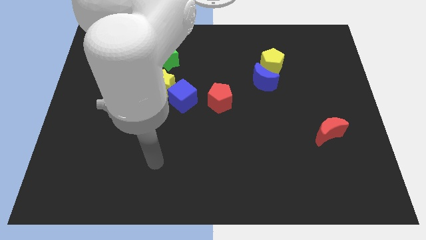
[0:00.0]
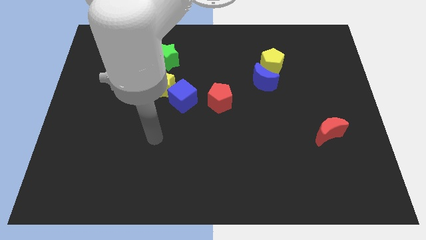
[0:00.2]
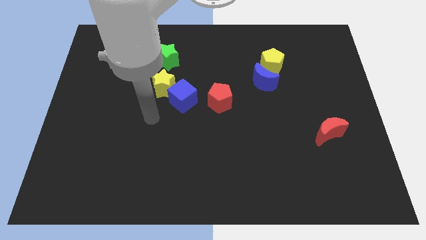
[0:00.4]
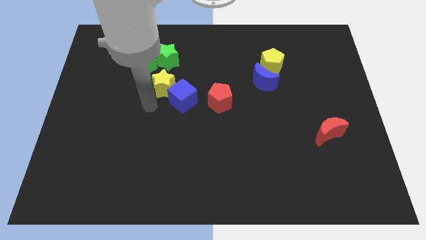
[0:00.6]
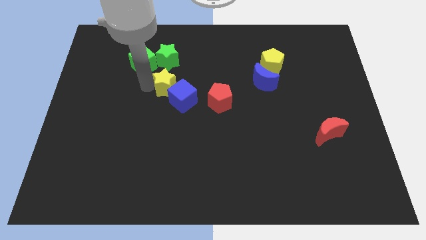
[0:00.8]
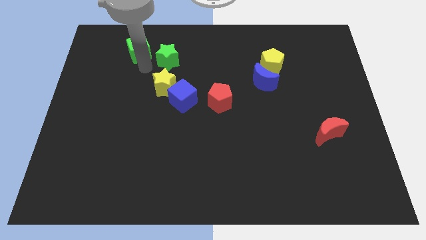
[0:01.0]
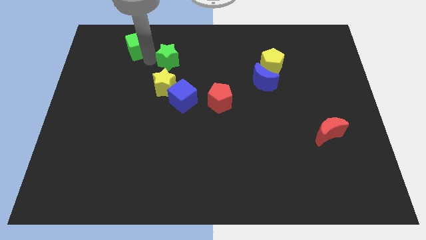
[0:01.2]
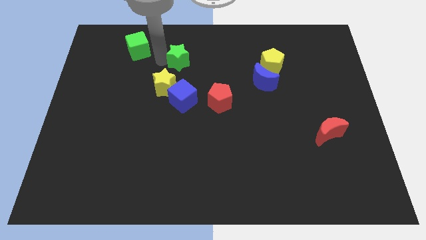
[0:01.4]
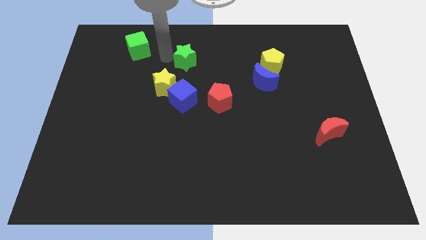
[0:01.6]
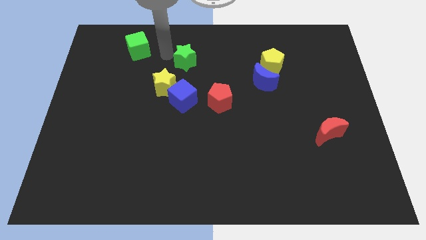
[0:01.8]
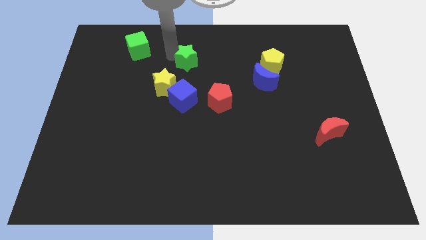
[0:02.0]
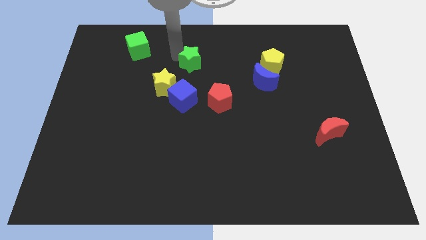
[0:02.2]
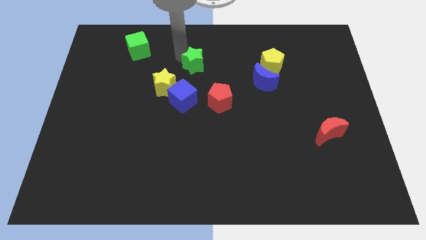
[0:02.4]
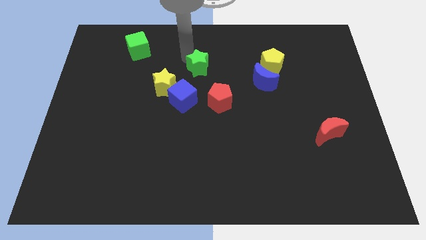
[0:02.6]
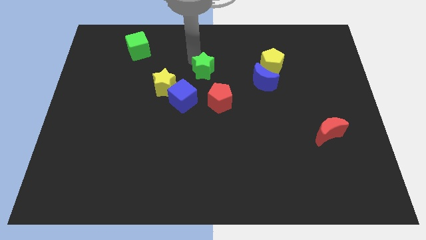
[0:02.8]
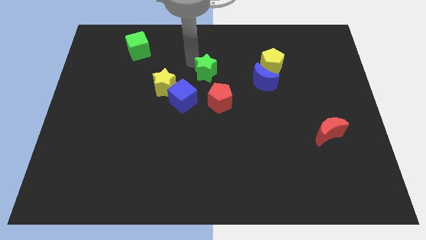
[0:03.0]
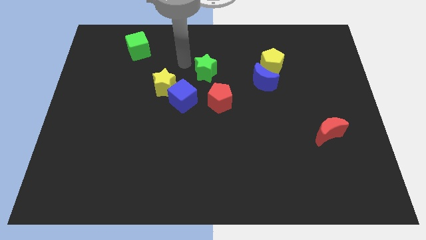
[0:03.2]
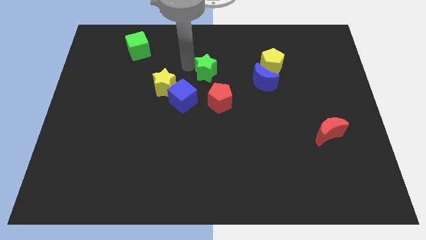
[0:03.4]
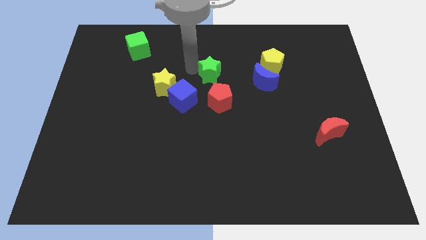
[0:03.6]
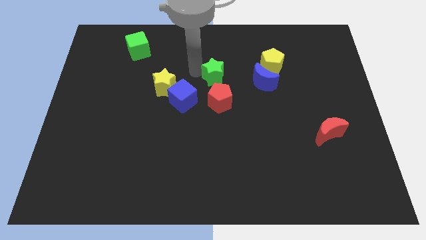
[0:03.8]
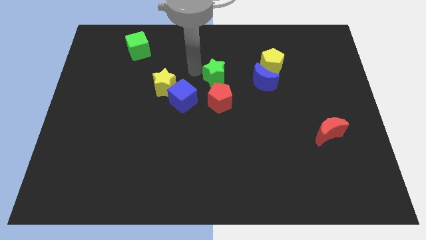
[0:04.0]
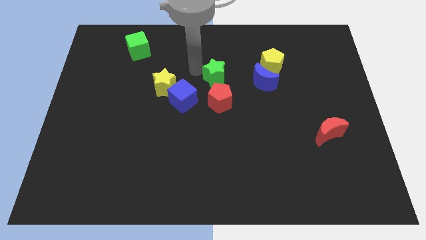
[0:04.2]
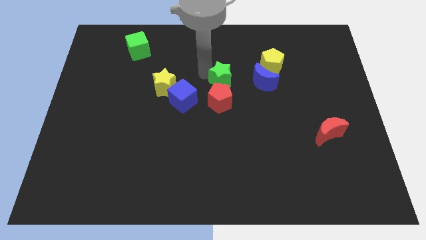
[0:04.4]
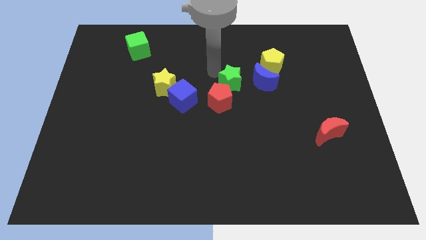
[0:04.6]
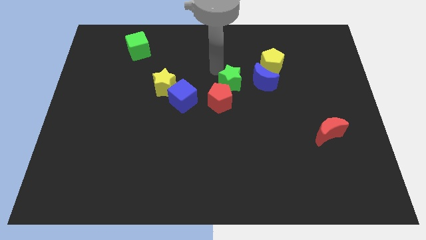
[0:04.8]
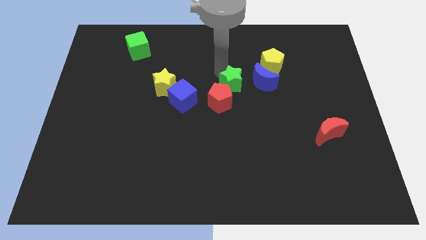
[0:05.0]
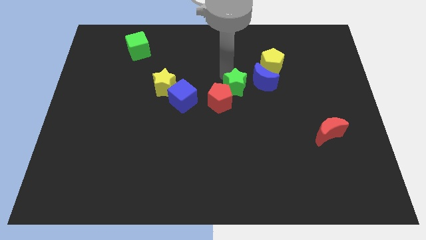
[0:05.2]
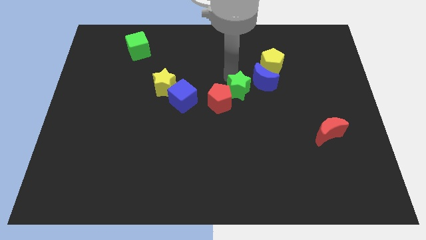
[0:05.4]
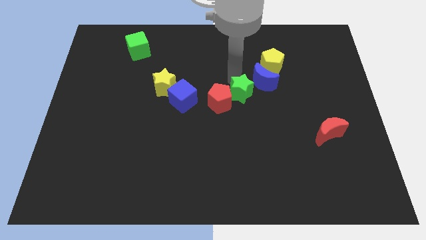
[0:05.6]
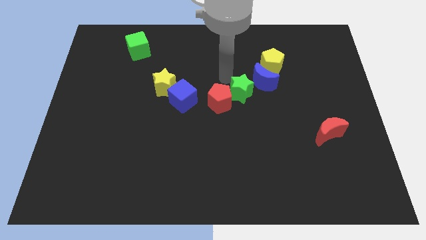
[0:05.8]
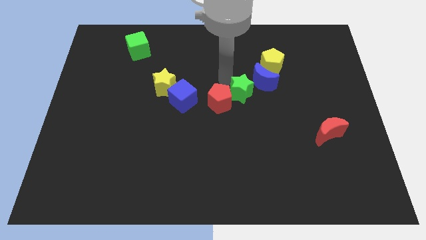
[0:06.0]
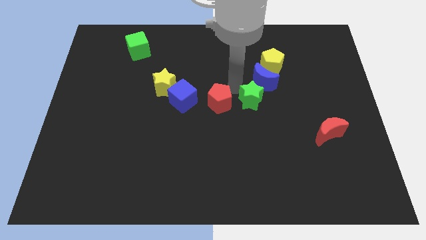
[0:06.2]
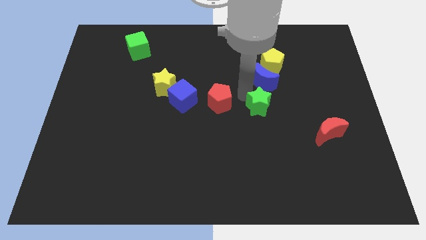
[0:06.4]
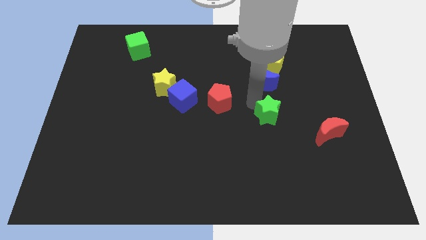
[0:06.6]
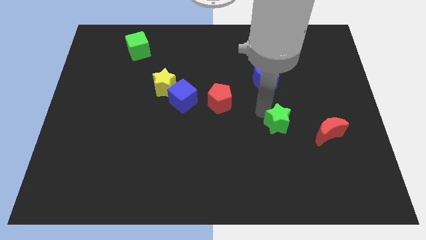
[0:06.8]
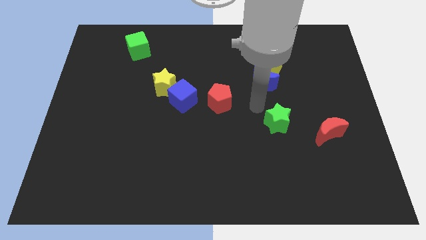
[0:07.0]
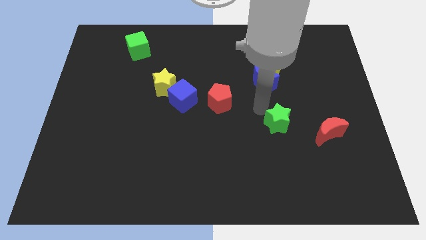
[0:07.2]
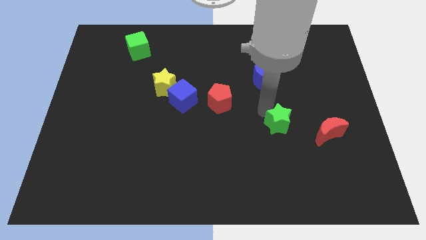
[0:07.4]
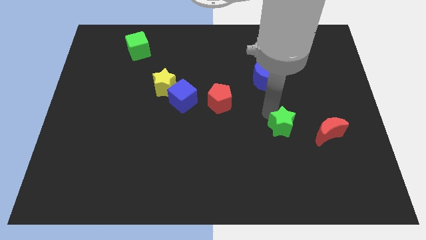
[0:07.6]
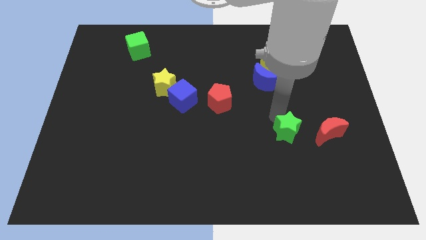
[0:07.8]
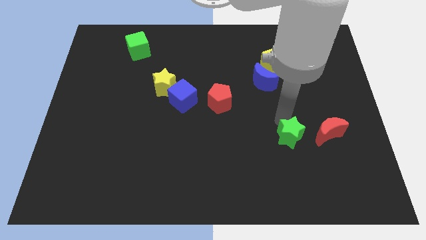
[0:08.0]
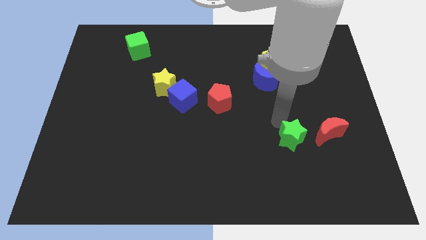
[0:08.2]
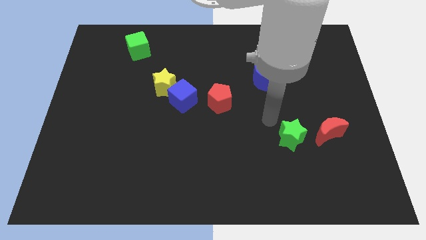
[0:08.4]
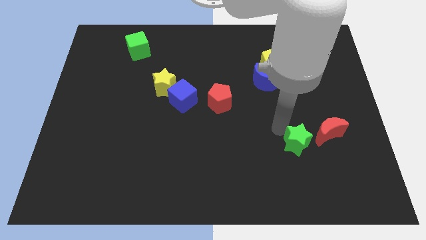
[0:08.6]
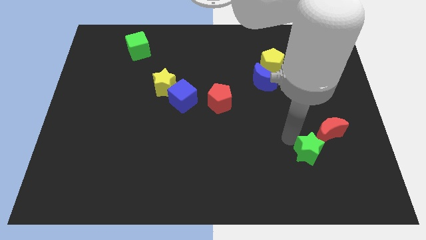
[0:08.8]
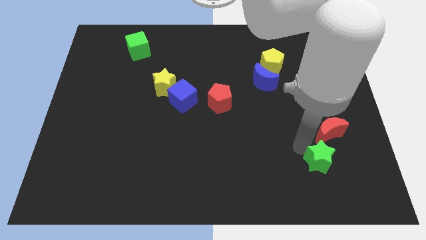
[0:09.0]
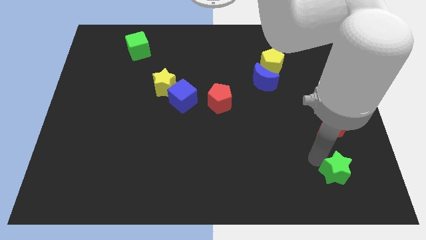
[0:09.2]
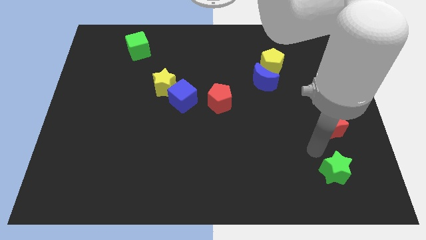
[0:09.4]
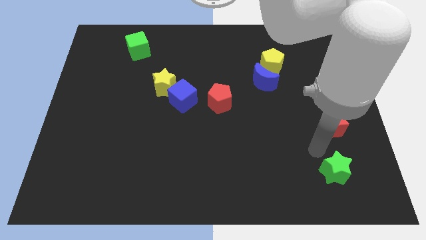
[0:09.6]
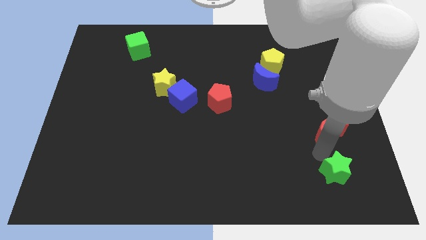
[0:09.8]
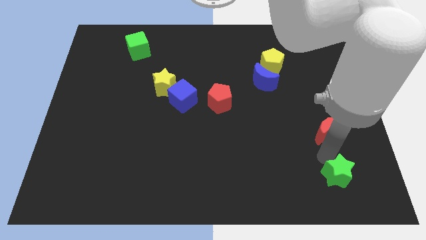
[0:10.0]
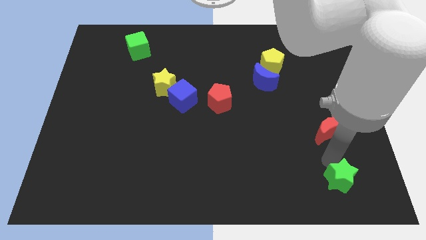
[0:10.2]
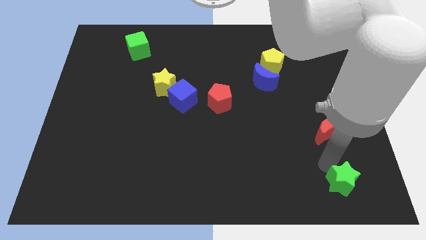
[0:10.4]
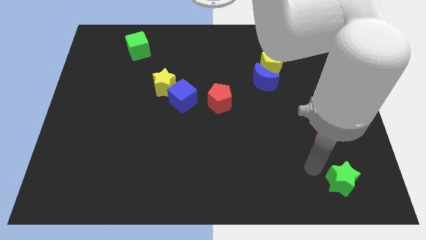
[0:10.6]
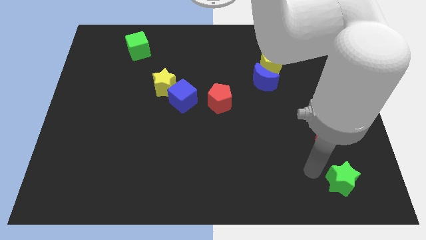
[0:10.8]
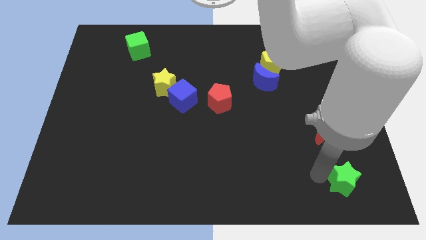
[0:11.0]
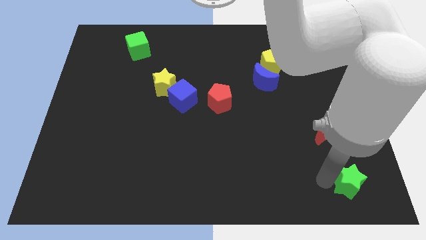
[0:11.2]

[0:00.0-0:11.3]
slide the green star to the lower right corner

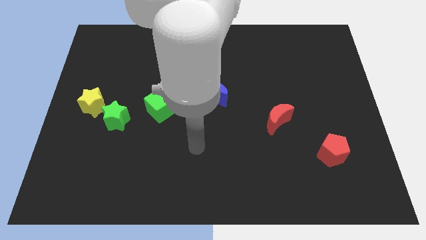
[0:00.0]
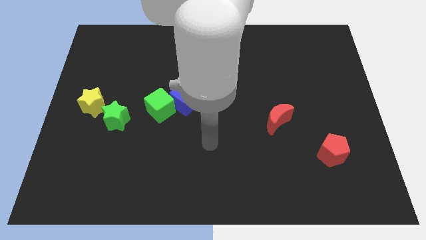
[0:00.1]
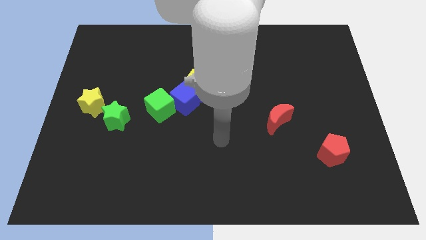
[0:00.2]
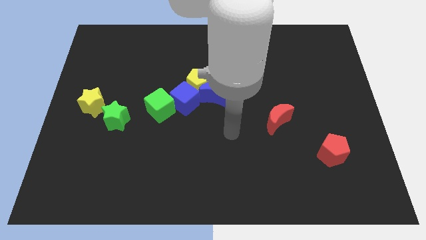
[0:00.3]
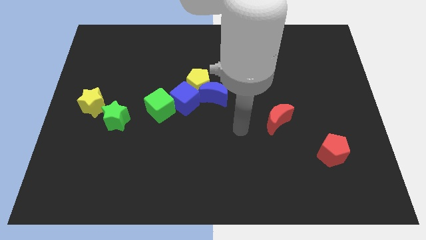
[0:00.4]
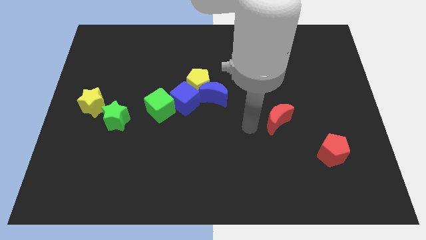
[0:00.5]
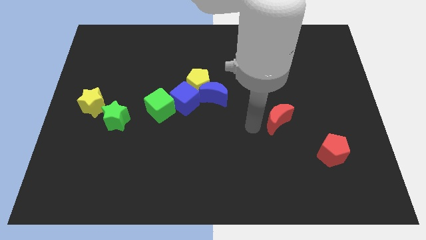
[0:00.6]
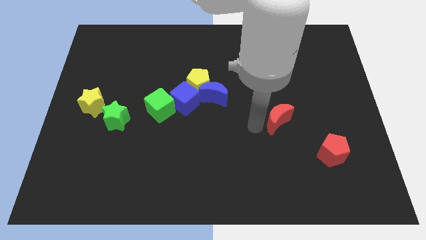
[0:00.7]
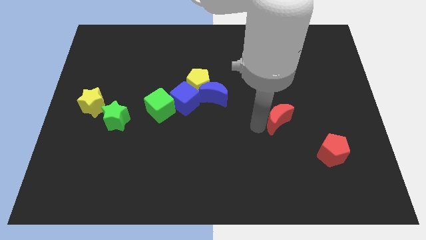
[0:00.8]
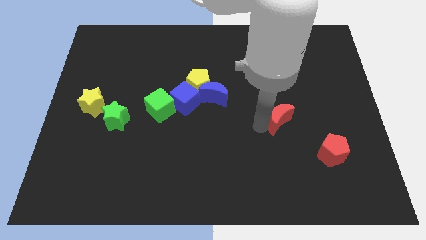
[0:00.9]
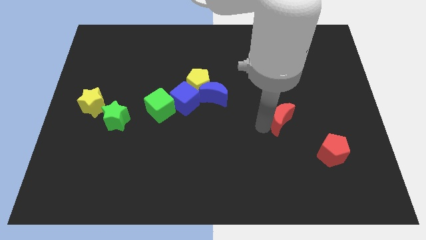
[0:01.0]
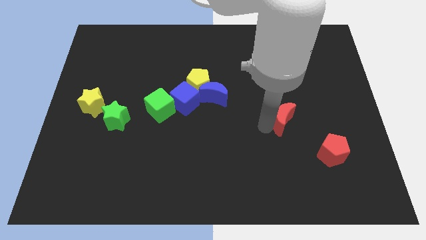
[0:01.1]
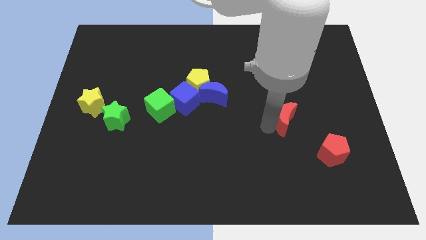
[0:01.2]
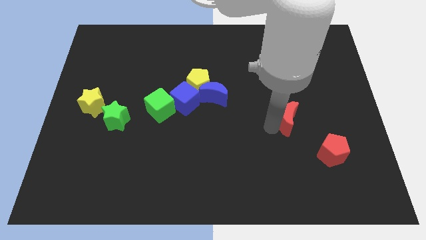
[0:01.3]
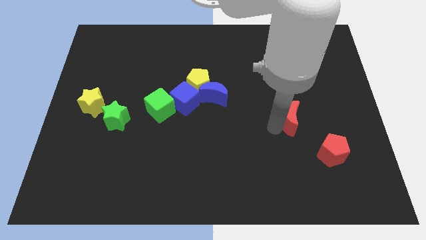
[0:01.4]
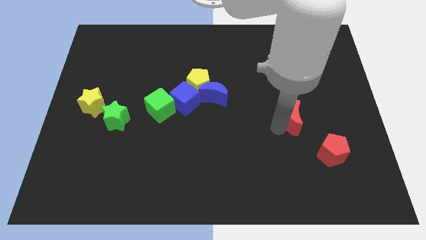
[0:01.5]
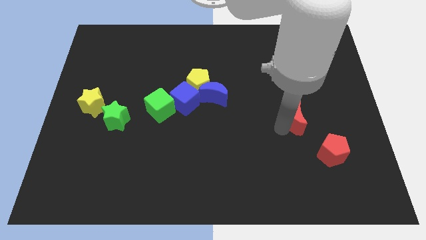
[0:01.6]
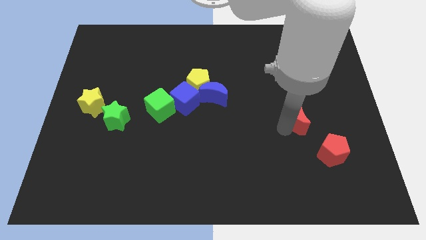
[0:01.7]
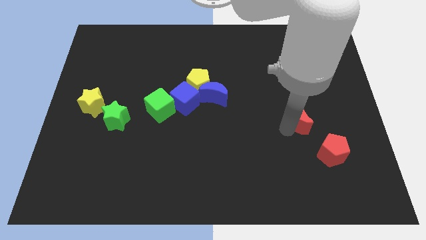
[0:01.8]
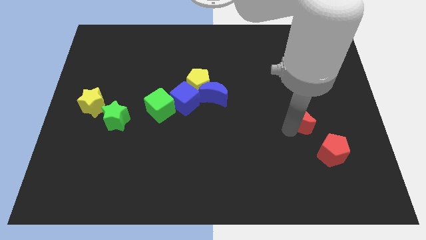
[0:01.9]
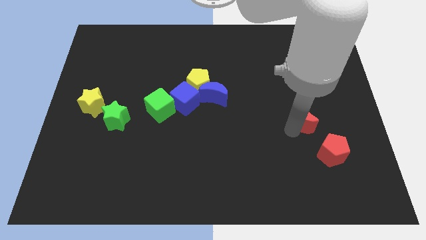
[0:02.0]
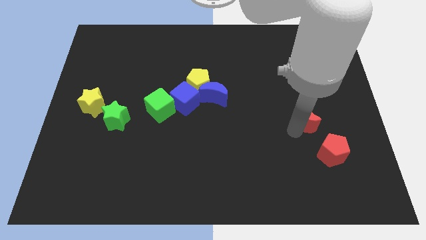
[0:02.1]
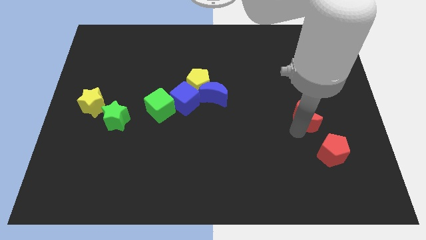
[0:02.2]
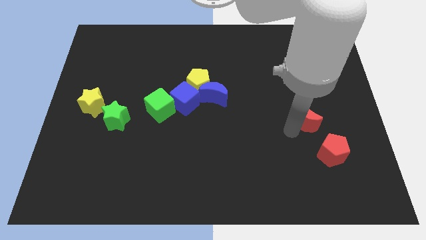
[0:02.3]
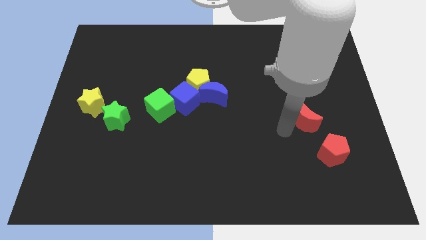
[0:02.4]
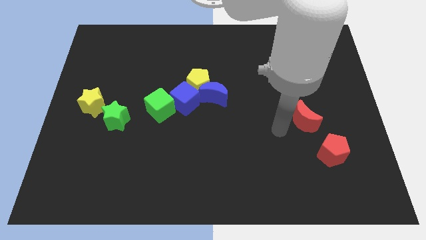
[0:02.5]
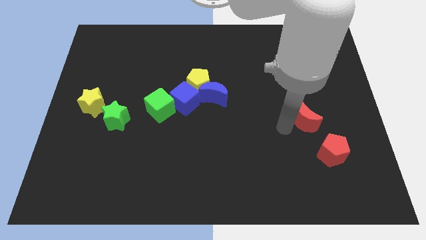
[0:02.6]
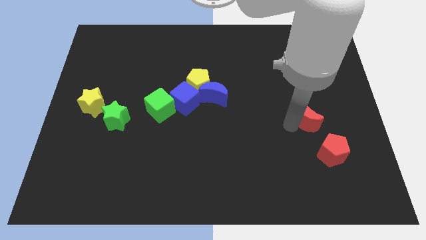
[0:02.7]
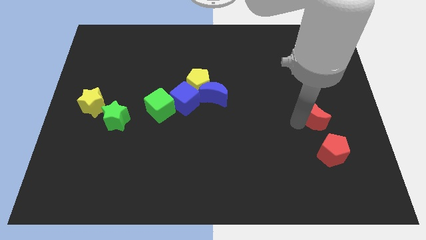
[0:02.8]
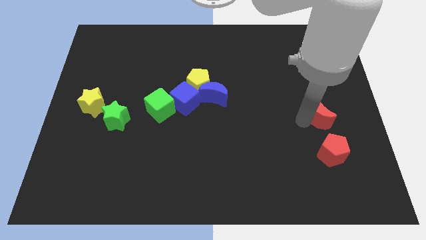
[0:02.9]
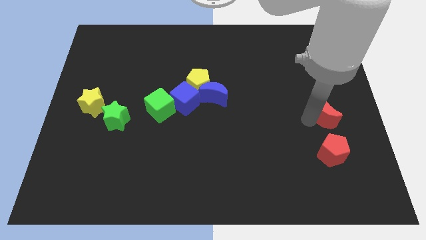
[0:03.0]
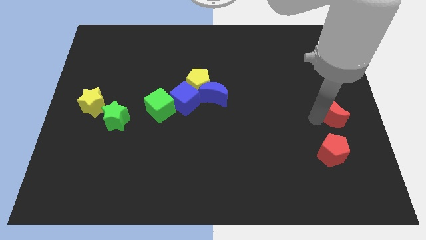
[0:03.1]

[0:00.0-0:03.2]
move the red moon to the center right
